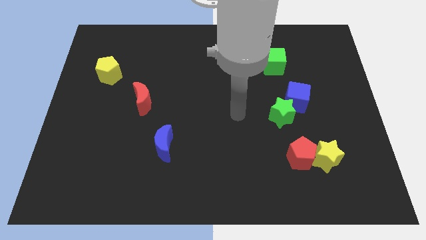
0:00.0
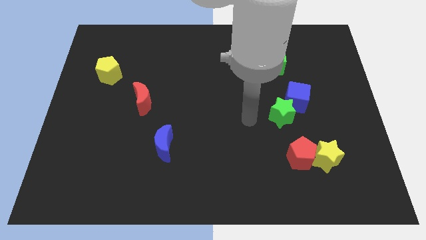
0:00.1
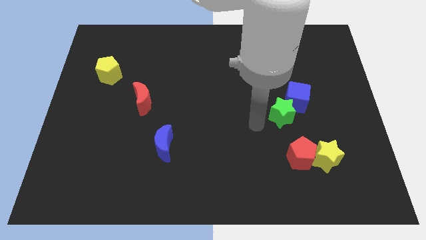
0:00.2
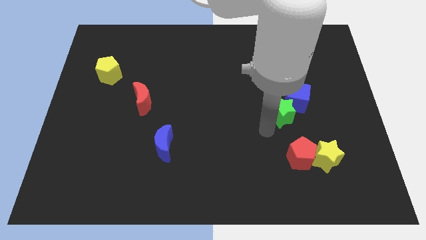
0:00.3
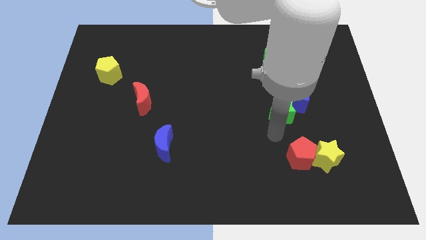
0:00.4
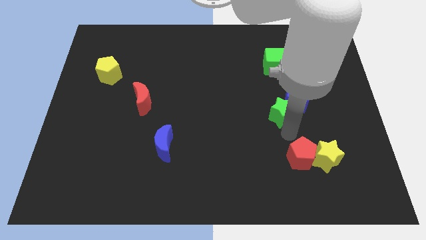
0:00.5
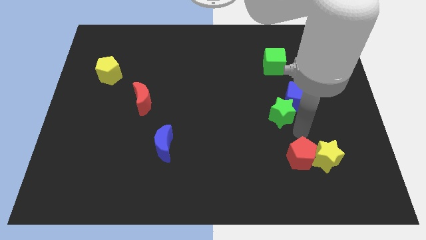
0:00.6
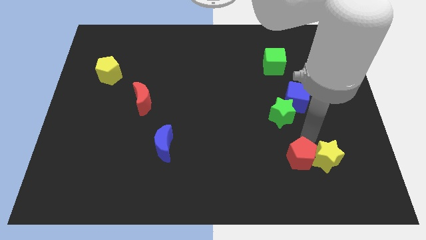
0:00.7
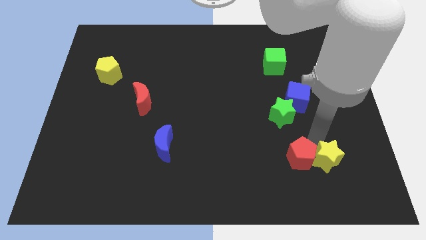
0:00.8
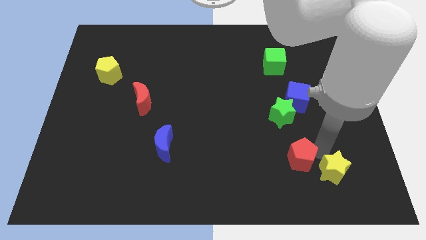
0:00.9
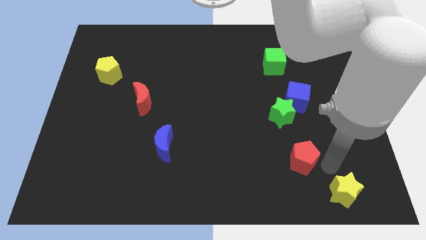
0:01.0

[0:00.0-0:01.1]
move the red pentagon away from the yellow star

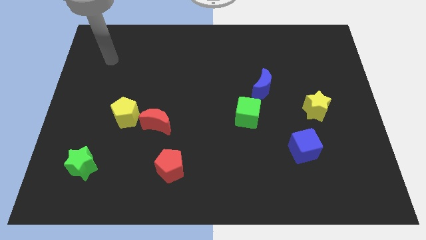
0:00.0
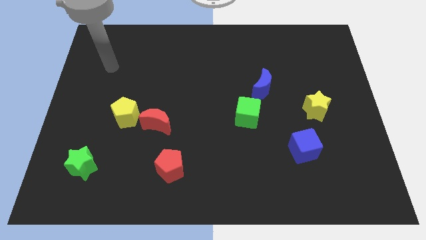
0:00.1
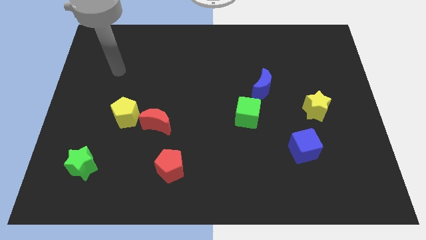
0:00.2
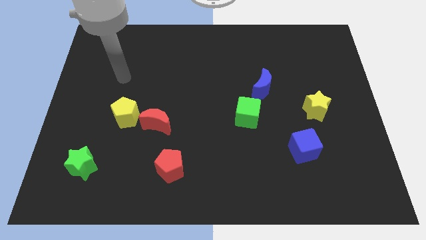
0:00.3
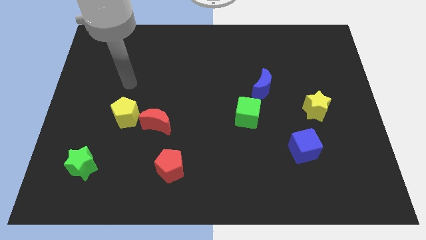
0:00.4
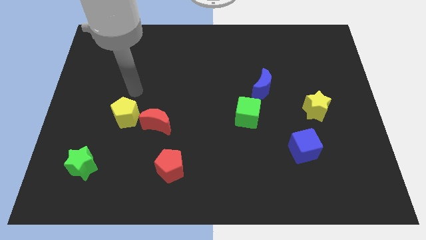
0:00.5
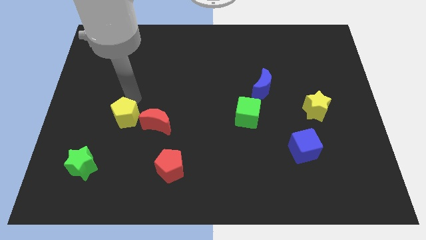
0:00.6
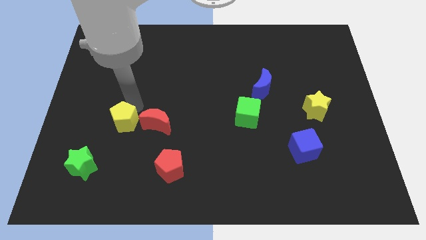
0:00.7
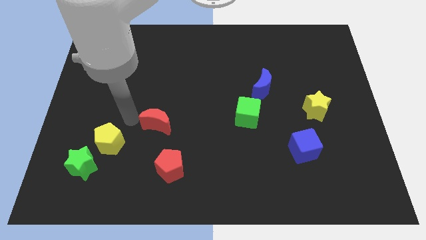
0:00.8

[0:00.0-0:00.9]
separate the red moon from the yellow pentagon

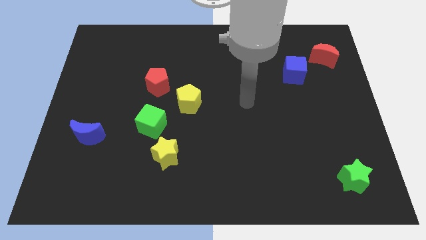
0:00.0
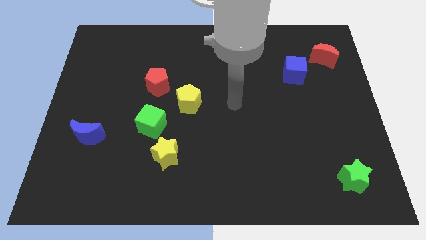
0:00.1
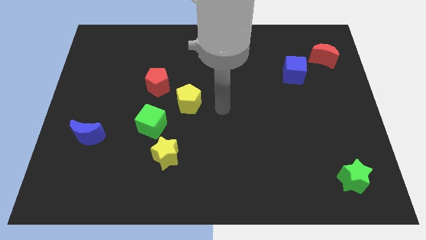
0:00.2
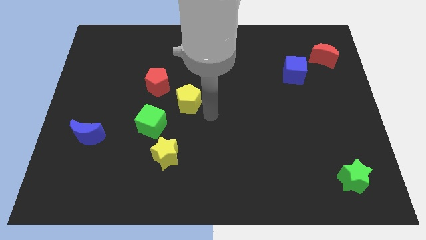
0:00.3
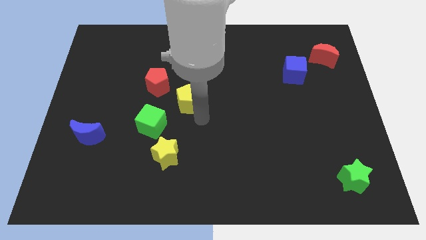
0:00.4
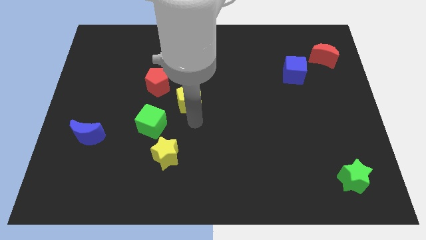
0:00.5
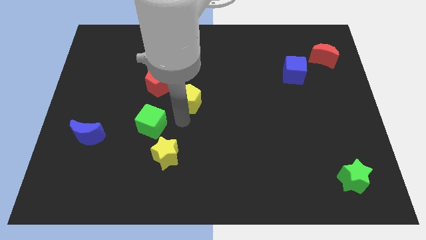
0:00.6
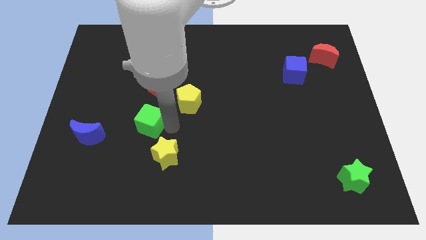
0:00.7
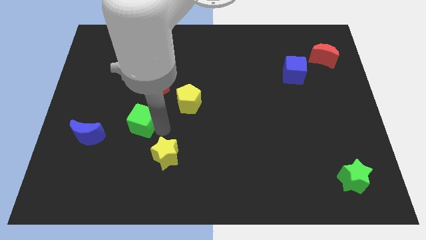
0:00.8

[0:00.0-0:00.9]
separate the yellow star from the green cube

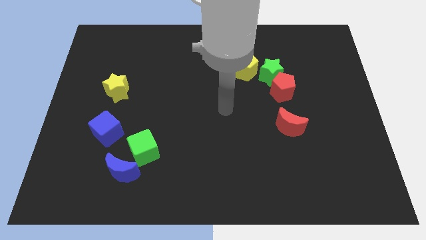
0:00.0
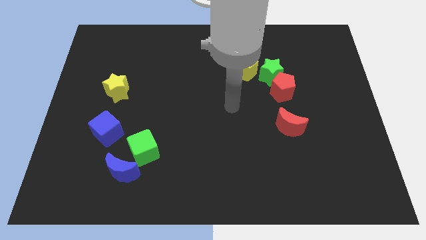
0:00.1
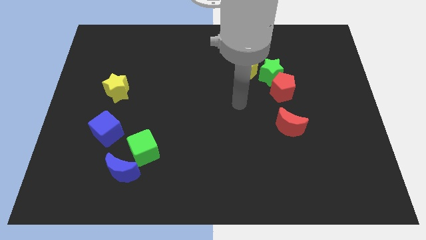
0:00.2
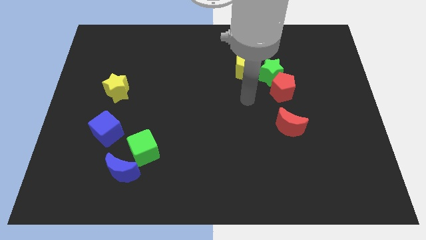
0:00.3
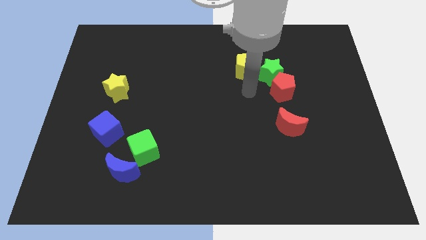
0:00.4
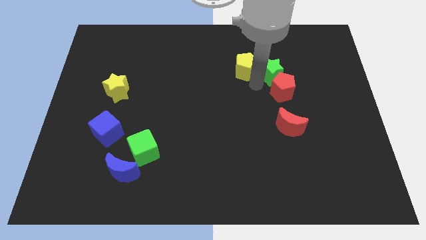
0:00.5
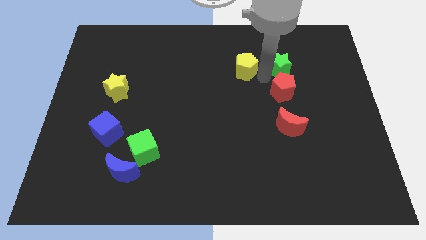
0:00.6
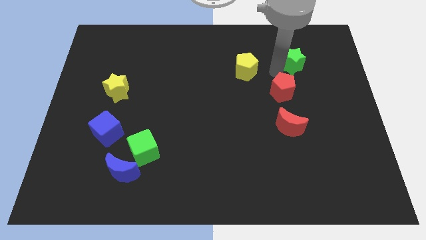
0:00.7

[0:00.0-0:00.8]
separate the red pentagon from the green star

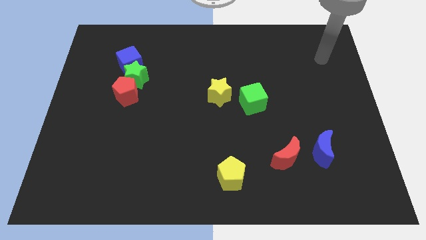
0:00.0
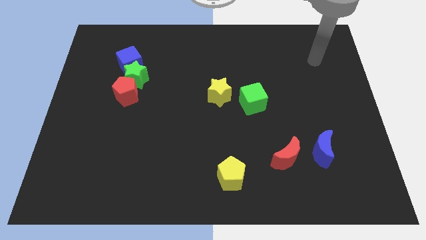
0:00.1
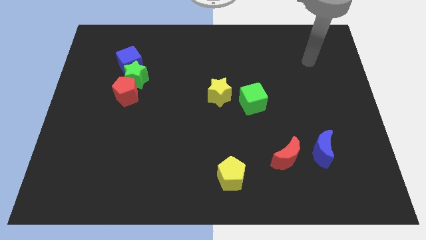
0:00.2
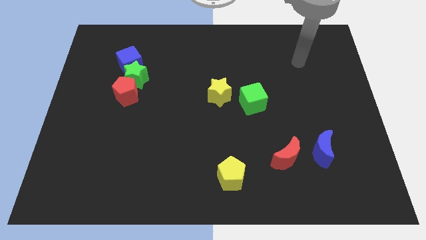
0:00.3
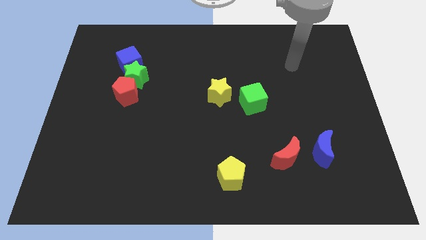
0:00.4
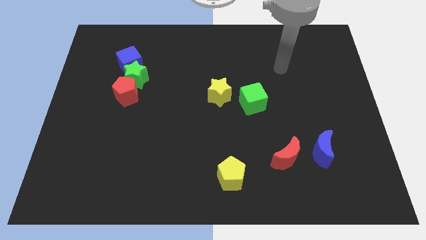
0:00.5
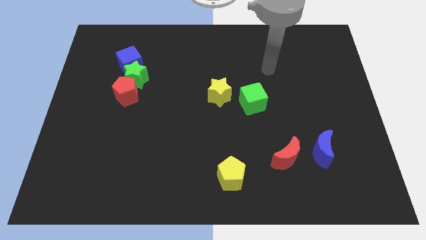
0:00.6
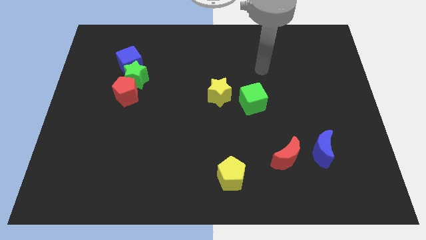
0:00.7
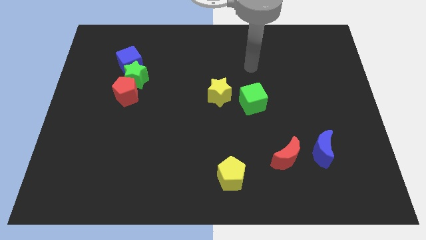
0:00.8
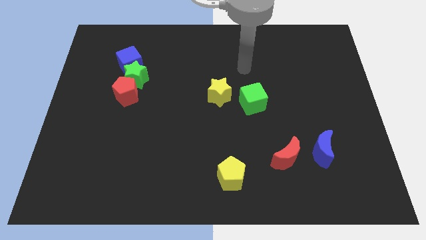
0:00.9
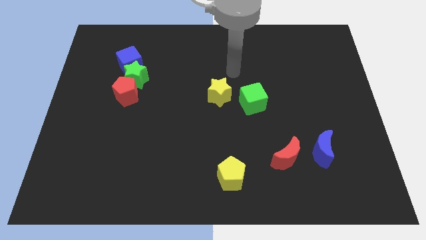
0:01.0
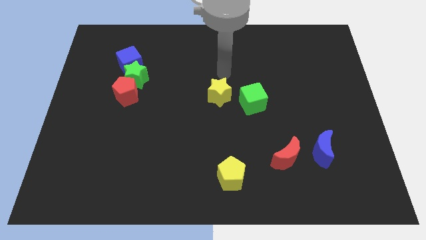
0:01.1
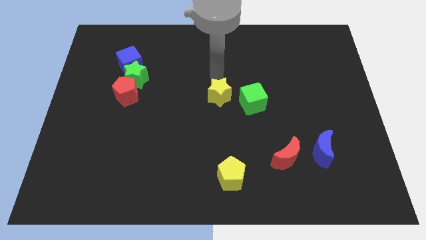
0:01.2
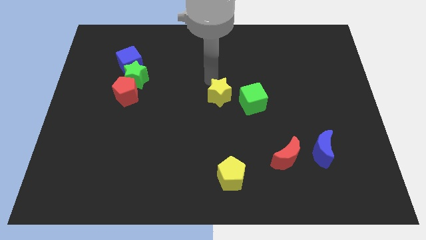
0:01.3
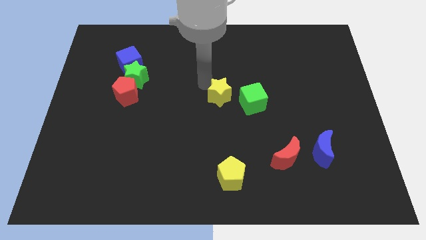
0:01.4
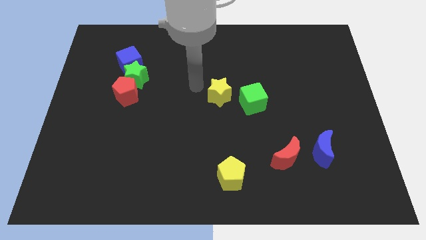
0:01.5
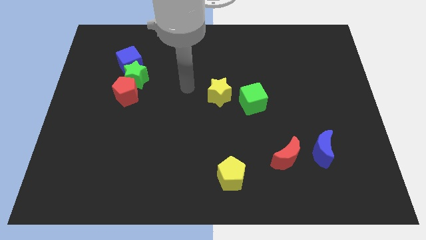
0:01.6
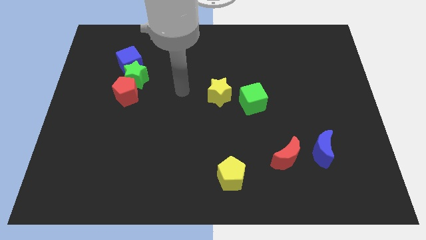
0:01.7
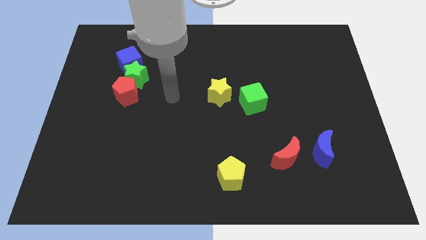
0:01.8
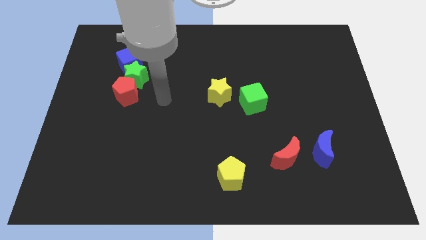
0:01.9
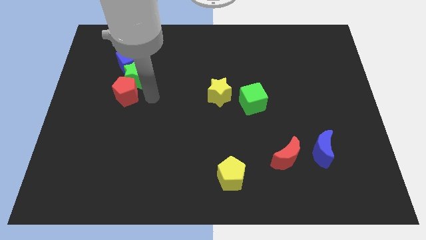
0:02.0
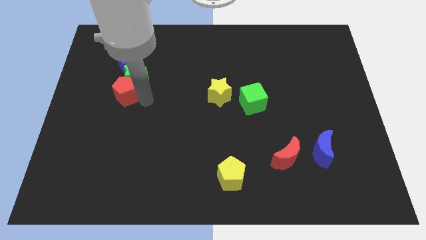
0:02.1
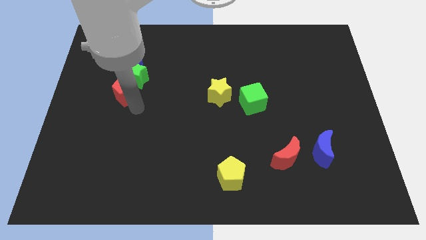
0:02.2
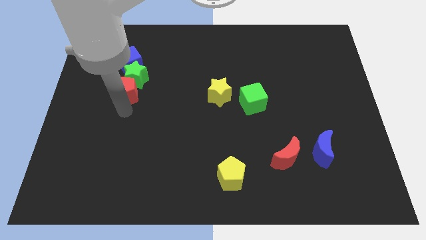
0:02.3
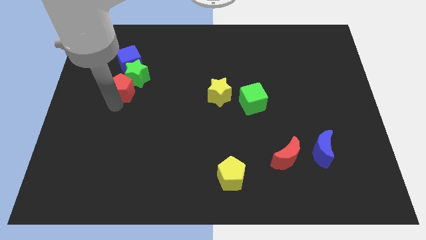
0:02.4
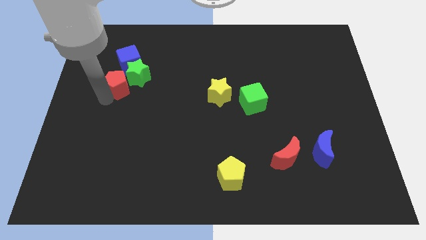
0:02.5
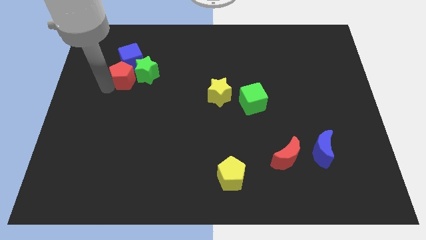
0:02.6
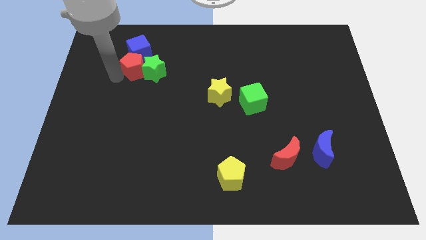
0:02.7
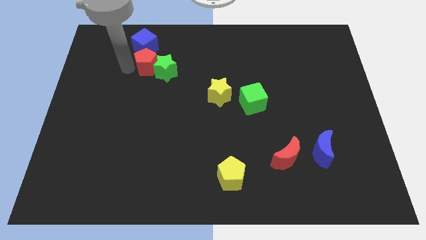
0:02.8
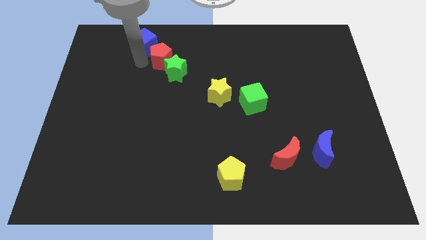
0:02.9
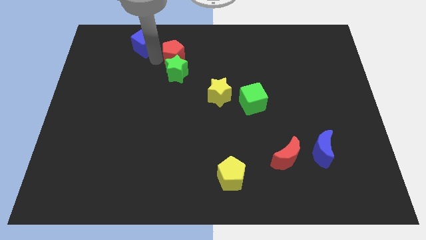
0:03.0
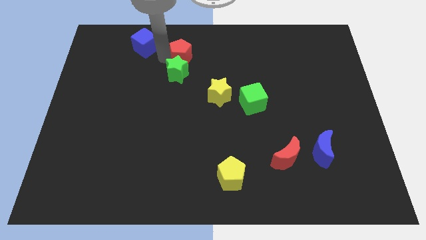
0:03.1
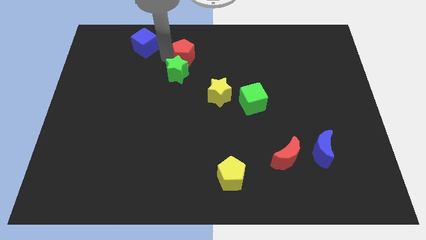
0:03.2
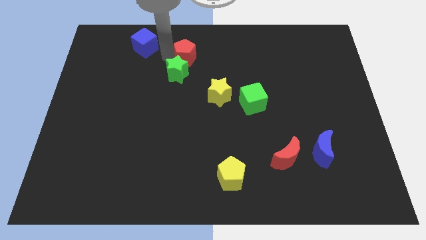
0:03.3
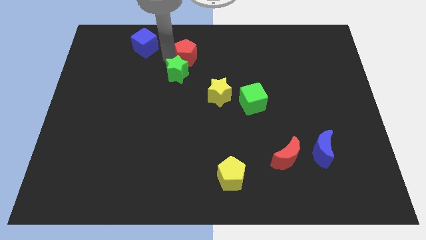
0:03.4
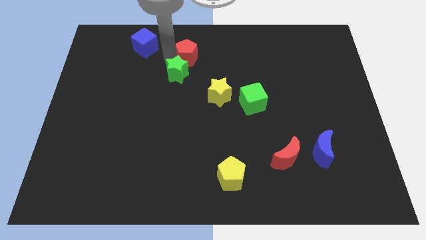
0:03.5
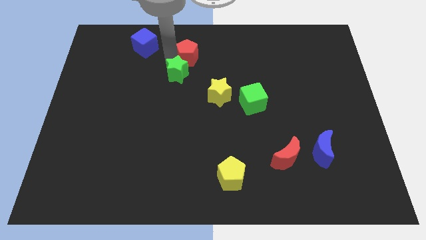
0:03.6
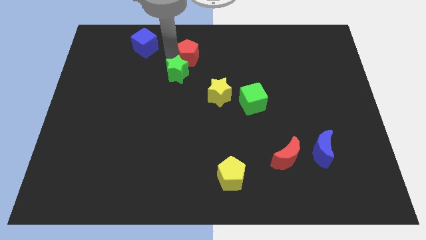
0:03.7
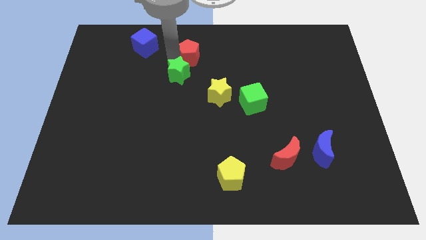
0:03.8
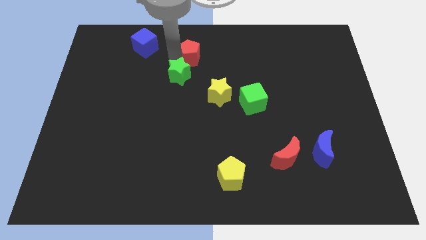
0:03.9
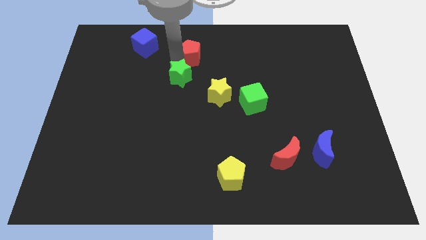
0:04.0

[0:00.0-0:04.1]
pull the green star apart from the red pentagon and blue cube

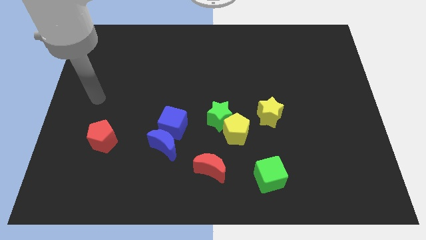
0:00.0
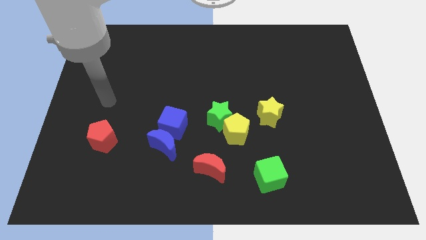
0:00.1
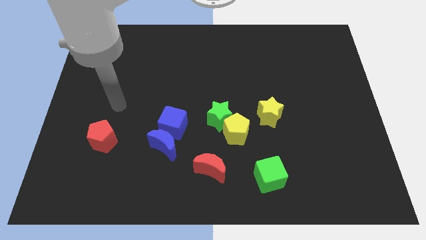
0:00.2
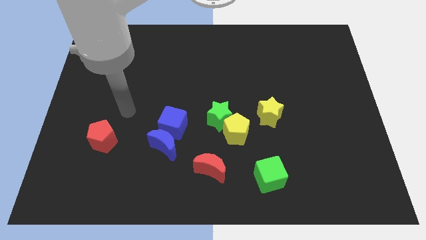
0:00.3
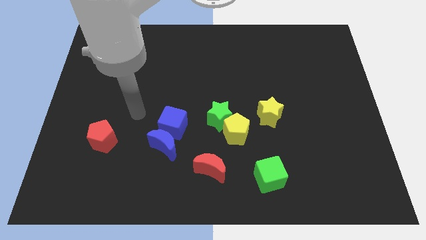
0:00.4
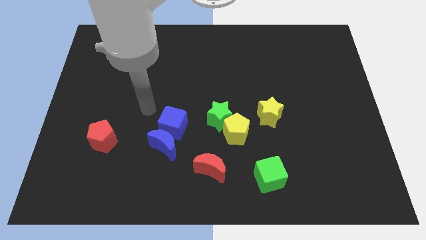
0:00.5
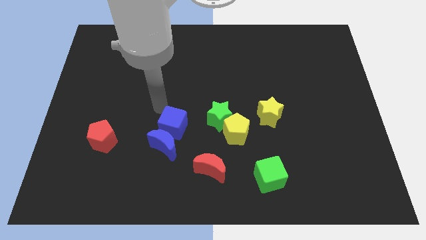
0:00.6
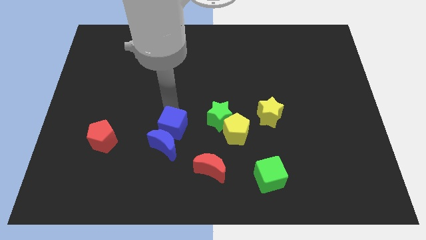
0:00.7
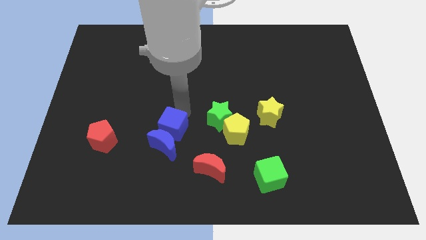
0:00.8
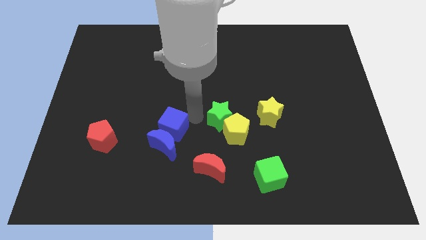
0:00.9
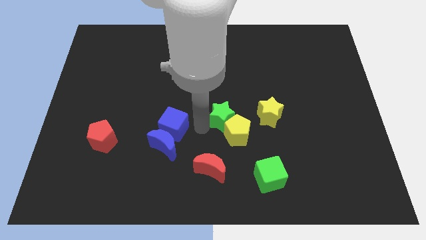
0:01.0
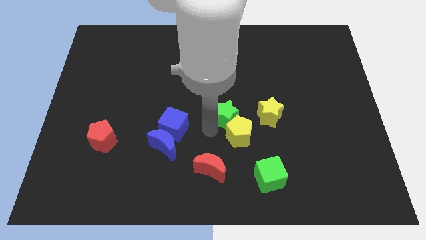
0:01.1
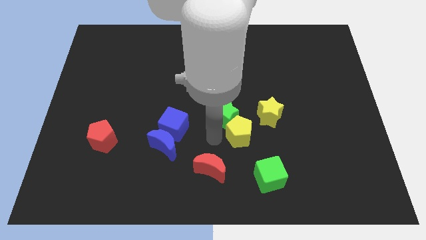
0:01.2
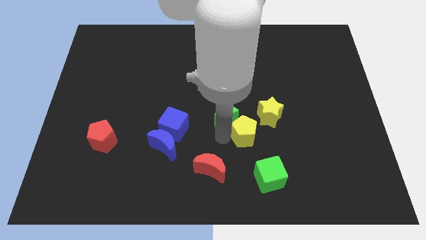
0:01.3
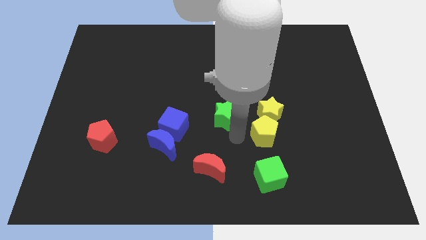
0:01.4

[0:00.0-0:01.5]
pull the green star apart from the yellow pentagon
